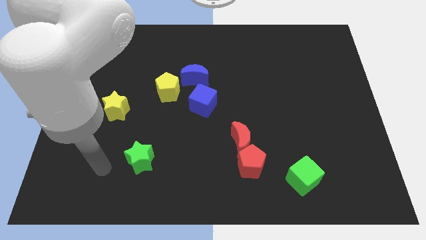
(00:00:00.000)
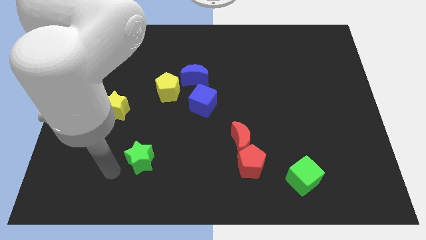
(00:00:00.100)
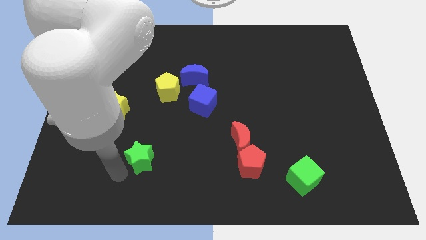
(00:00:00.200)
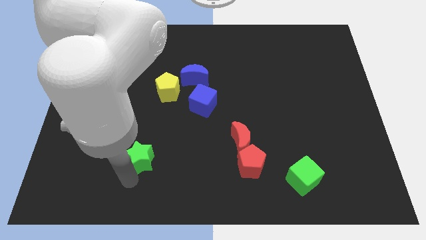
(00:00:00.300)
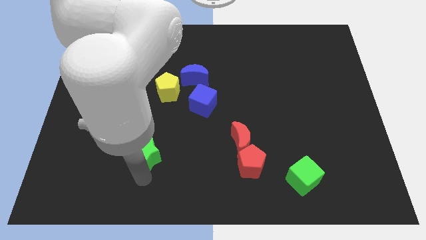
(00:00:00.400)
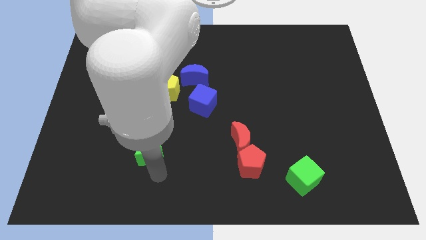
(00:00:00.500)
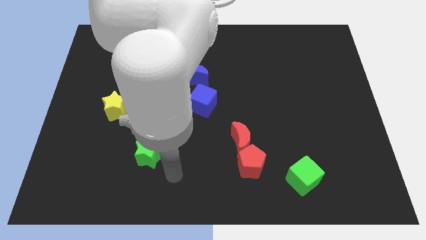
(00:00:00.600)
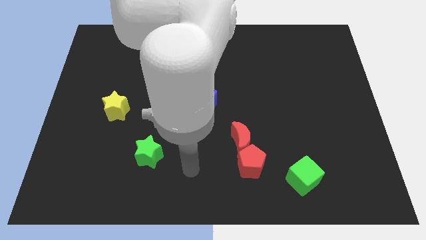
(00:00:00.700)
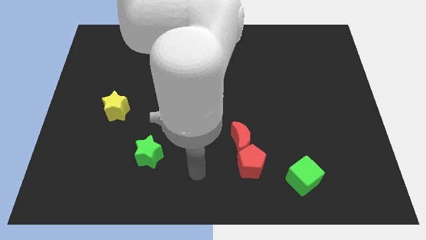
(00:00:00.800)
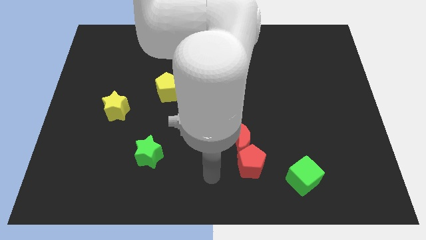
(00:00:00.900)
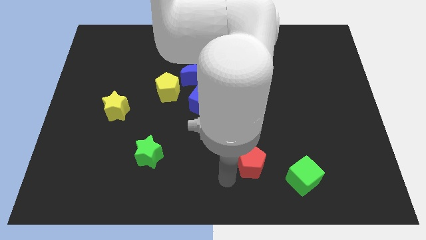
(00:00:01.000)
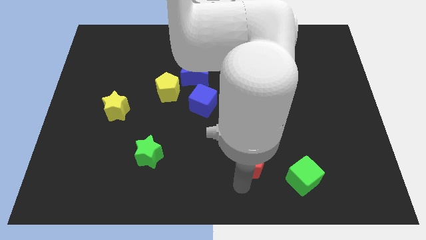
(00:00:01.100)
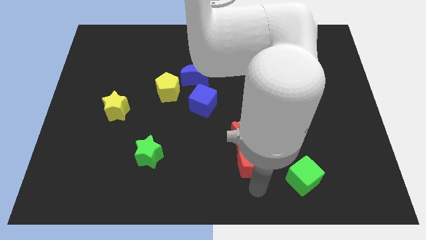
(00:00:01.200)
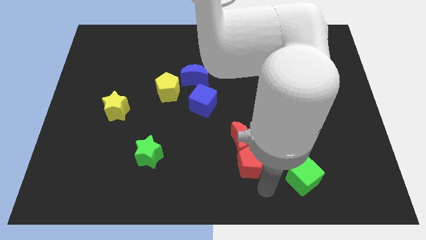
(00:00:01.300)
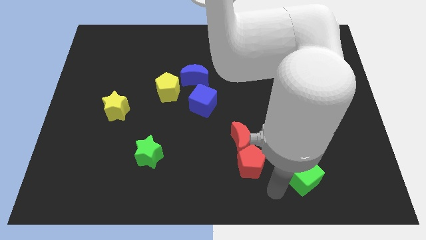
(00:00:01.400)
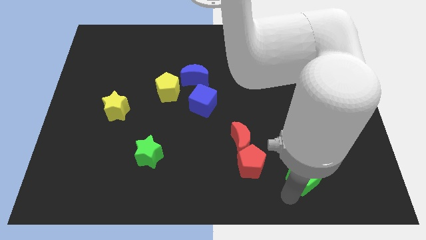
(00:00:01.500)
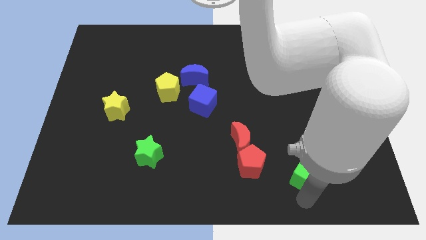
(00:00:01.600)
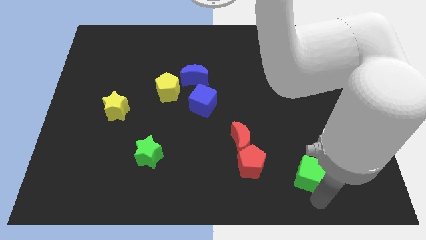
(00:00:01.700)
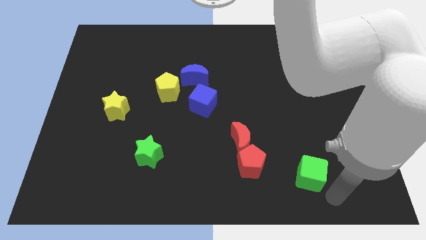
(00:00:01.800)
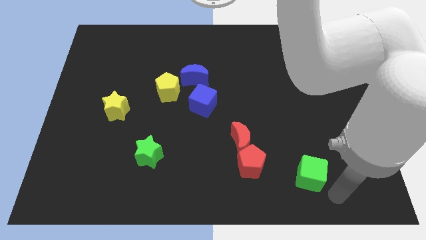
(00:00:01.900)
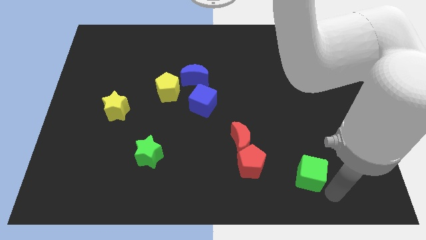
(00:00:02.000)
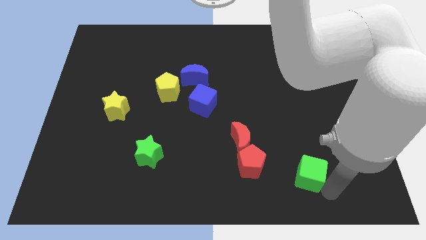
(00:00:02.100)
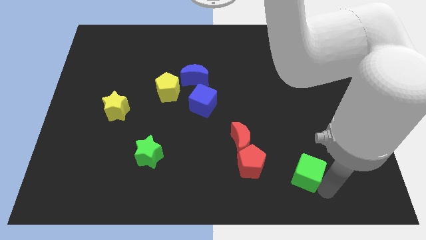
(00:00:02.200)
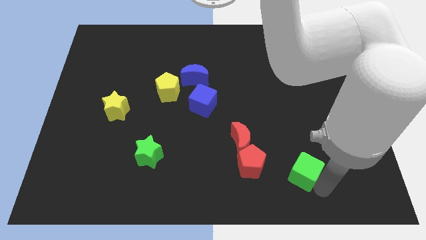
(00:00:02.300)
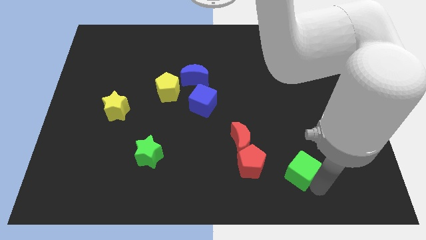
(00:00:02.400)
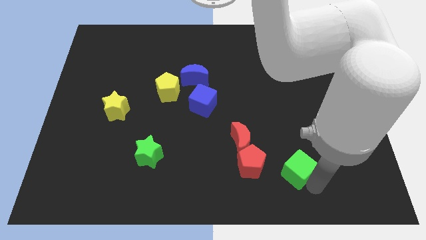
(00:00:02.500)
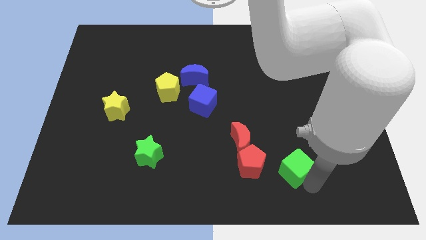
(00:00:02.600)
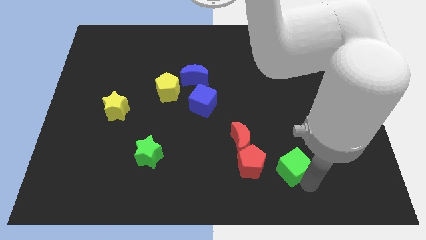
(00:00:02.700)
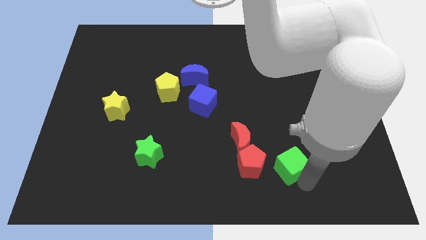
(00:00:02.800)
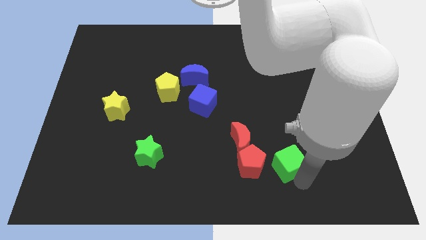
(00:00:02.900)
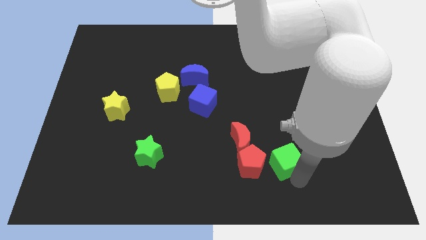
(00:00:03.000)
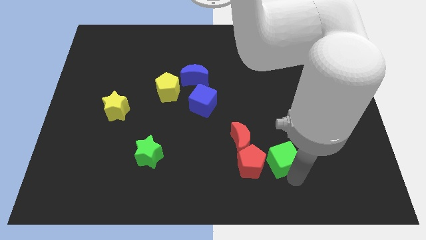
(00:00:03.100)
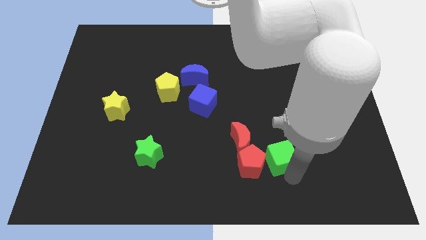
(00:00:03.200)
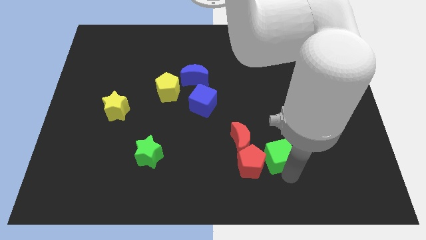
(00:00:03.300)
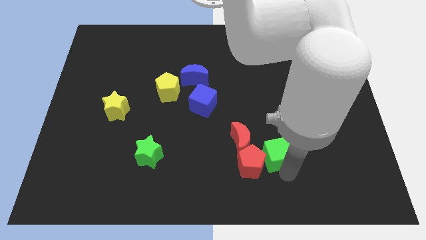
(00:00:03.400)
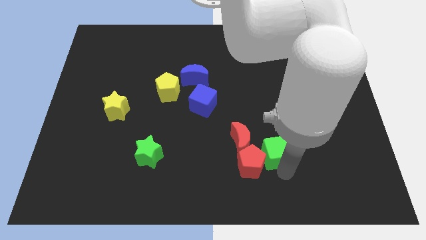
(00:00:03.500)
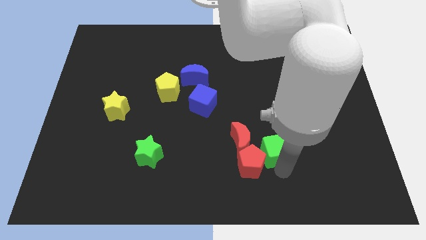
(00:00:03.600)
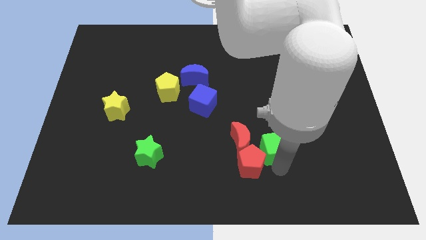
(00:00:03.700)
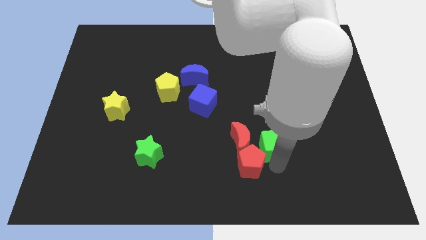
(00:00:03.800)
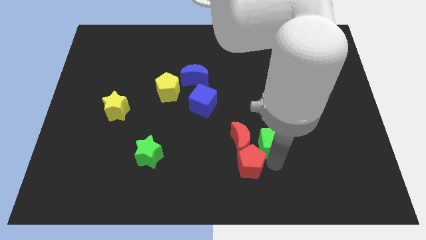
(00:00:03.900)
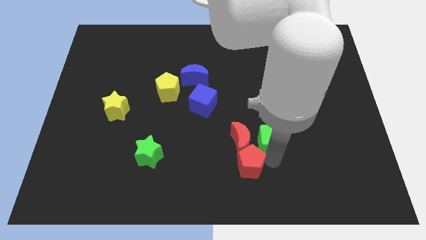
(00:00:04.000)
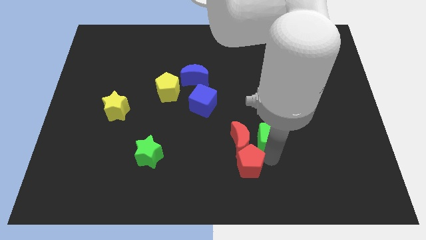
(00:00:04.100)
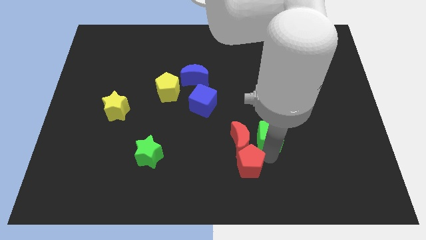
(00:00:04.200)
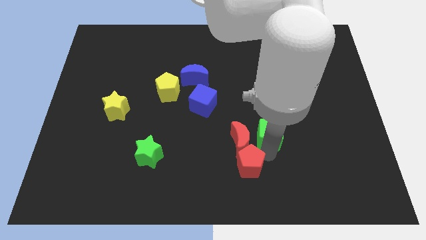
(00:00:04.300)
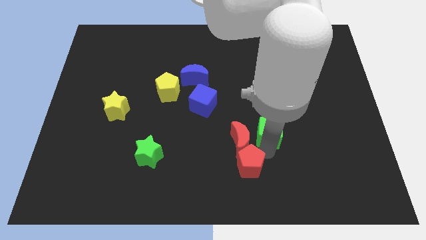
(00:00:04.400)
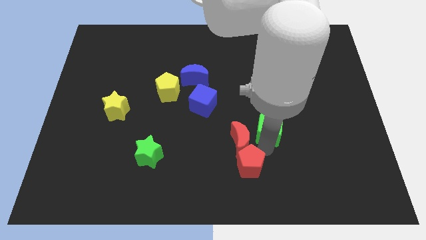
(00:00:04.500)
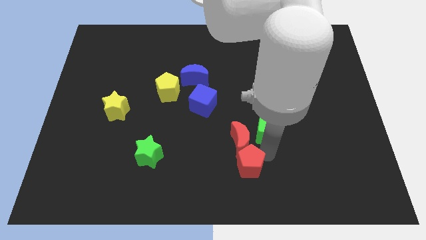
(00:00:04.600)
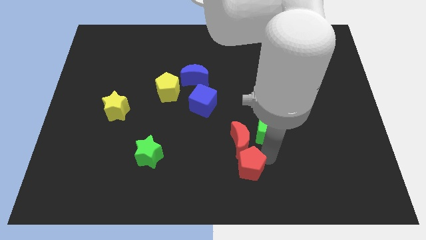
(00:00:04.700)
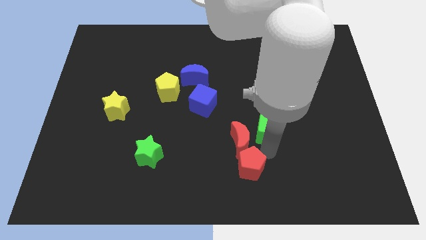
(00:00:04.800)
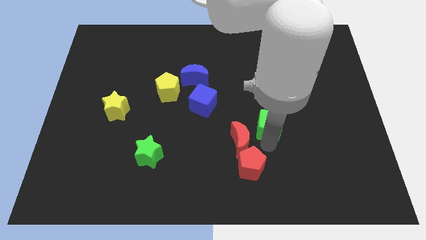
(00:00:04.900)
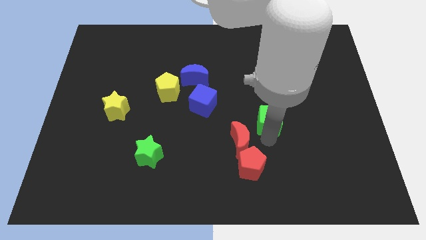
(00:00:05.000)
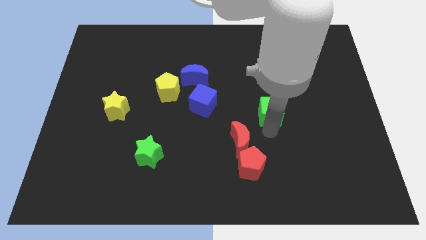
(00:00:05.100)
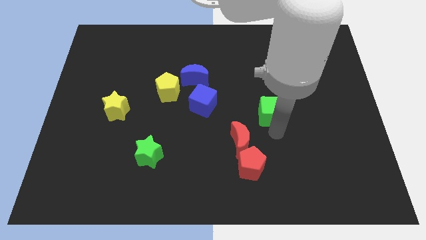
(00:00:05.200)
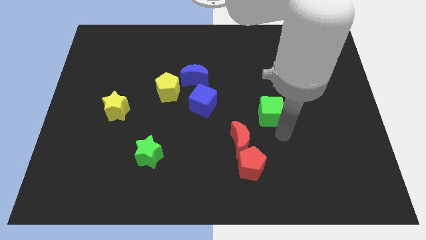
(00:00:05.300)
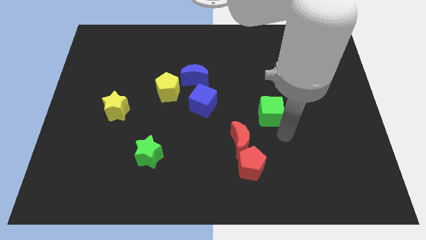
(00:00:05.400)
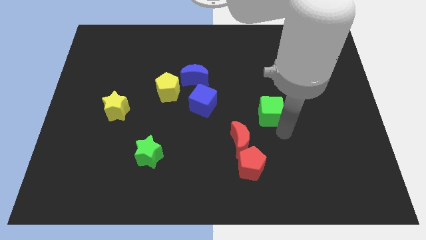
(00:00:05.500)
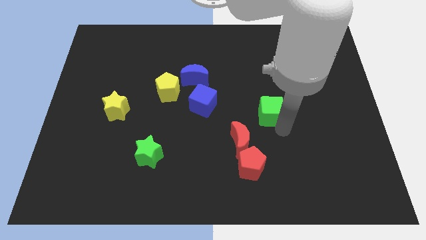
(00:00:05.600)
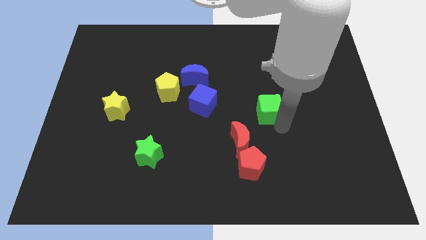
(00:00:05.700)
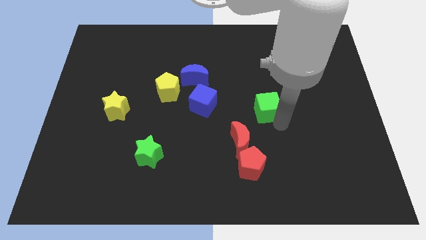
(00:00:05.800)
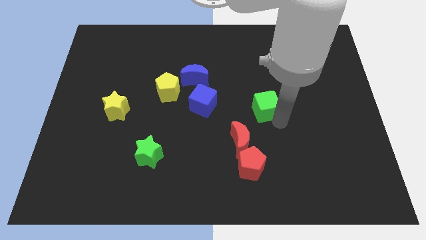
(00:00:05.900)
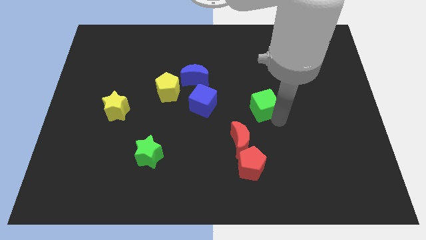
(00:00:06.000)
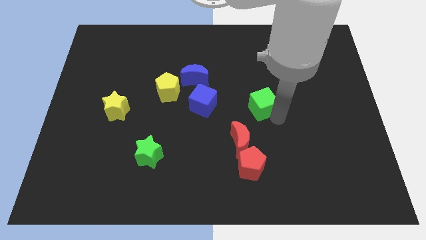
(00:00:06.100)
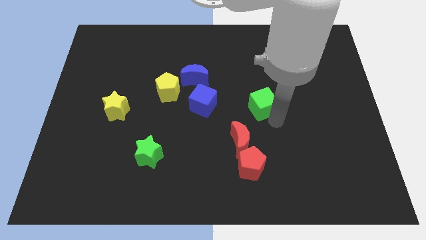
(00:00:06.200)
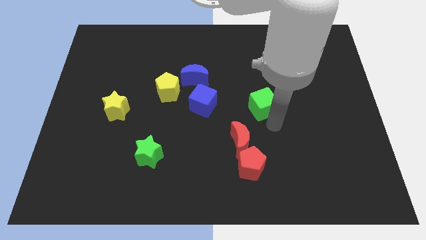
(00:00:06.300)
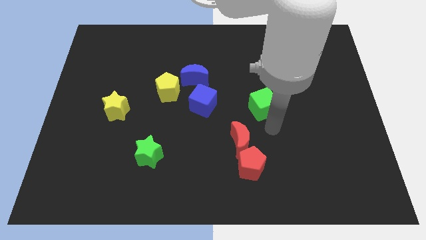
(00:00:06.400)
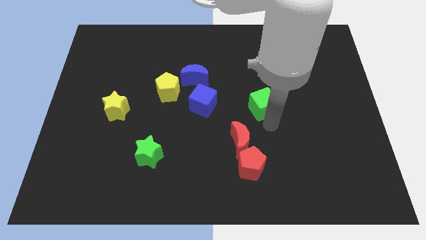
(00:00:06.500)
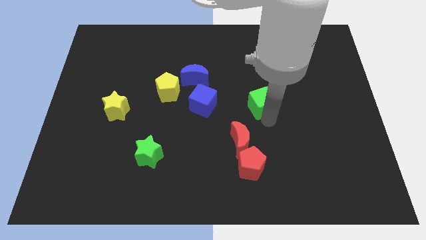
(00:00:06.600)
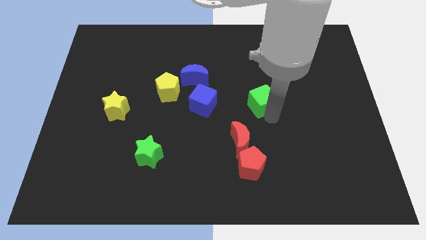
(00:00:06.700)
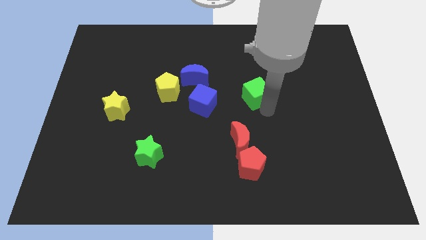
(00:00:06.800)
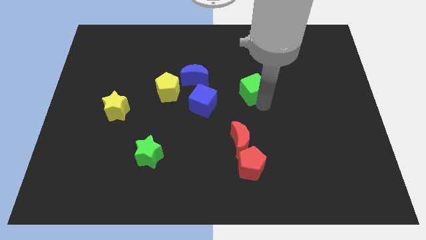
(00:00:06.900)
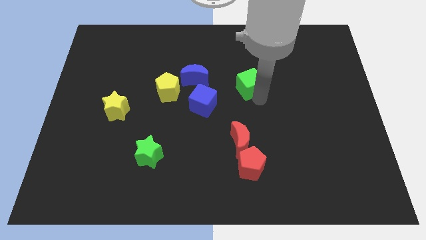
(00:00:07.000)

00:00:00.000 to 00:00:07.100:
put the green cube just right of the blue moon
